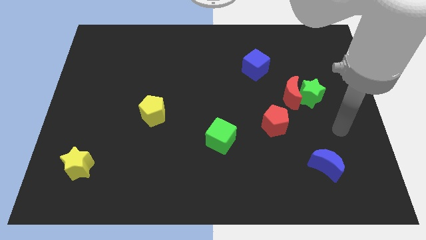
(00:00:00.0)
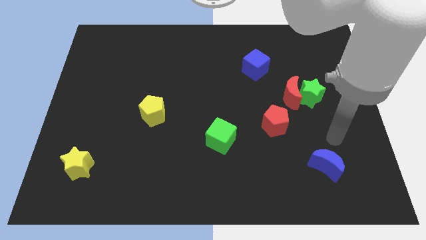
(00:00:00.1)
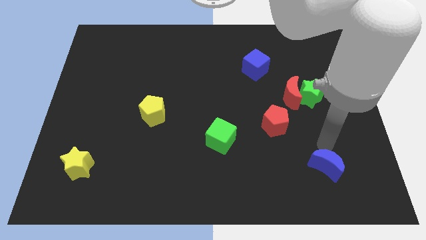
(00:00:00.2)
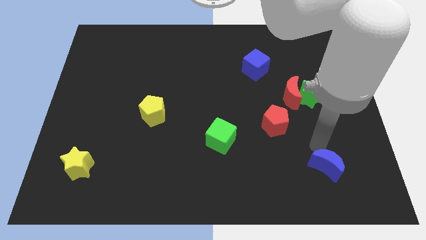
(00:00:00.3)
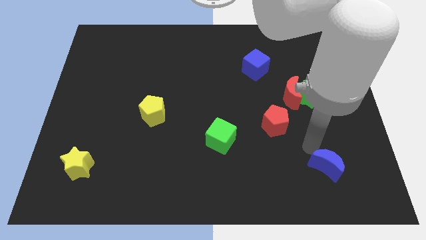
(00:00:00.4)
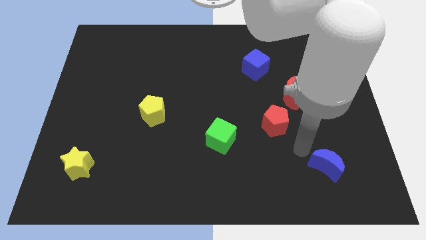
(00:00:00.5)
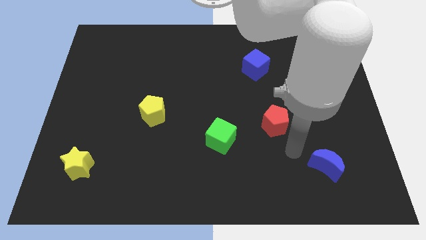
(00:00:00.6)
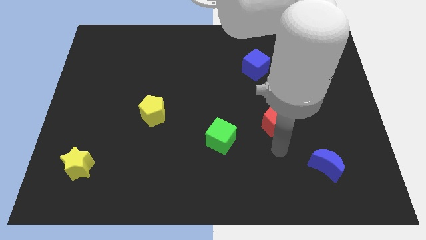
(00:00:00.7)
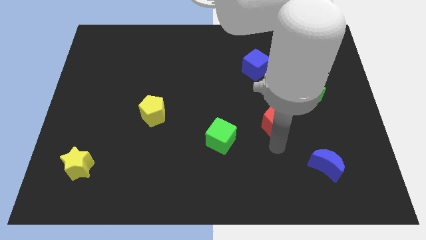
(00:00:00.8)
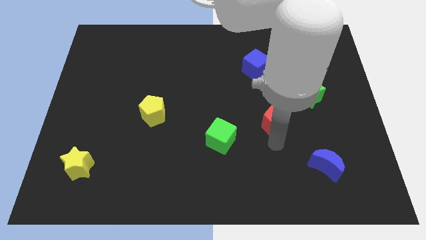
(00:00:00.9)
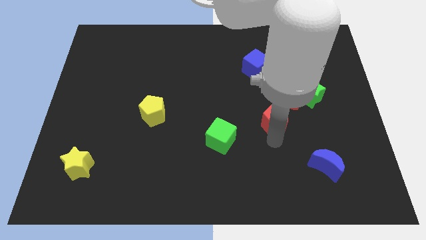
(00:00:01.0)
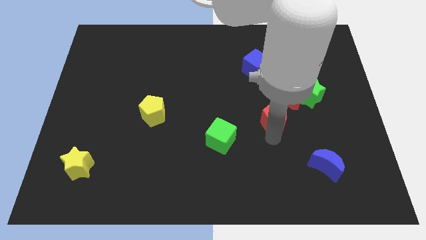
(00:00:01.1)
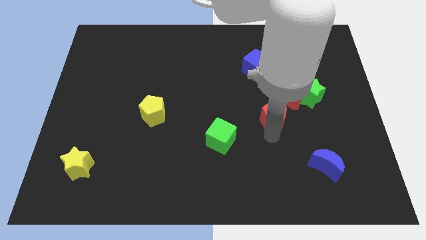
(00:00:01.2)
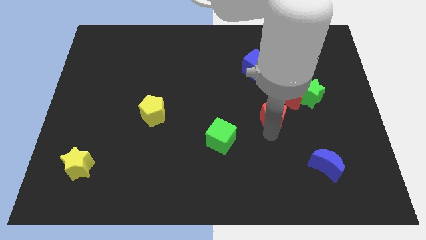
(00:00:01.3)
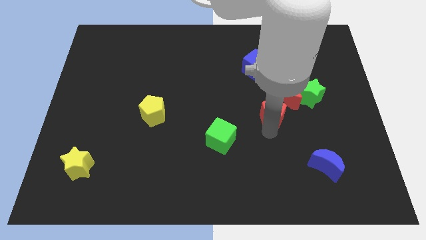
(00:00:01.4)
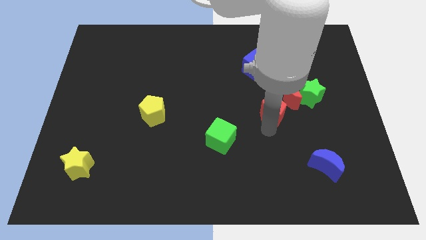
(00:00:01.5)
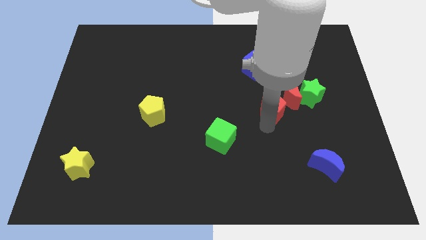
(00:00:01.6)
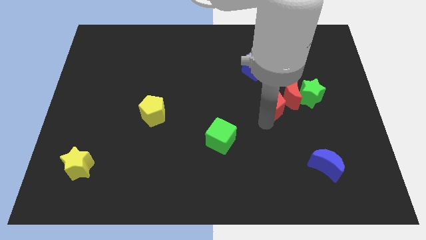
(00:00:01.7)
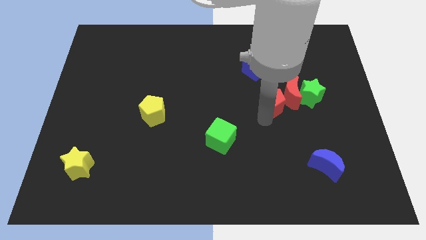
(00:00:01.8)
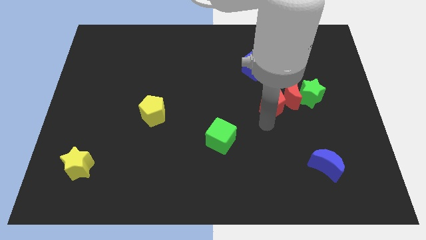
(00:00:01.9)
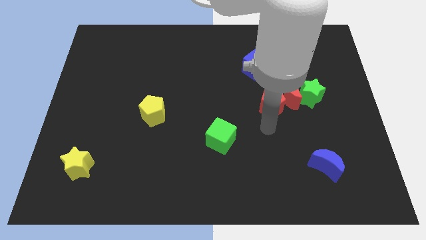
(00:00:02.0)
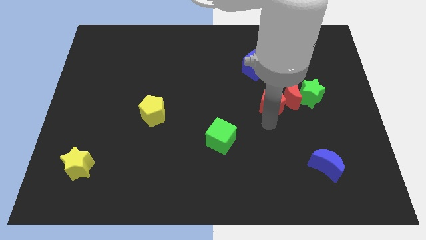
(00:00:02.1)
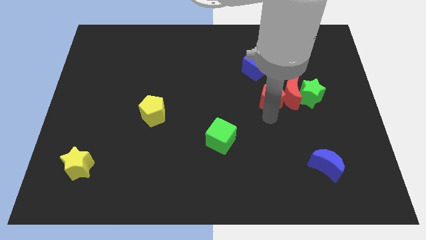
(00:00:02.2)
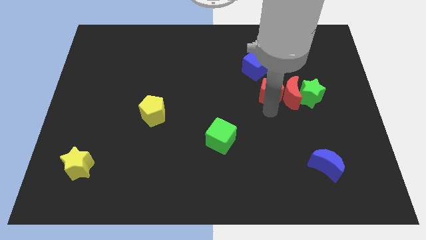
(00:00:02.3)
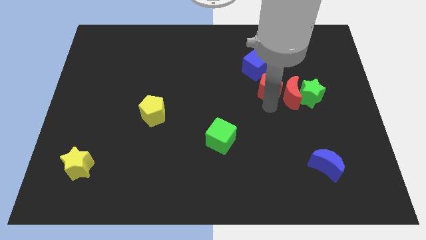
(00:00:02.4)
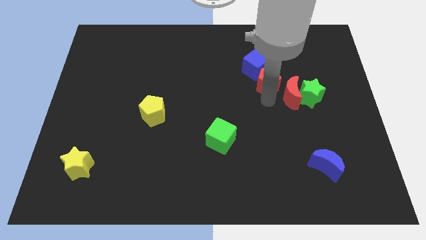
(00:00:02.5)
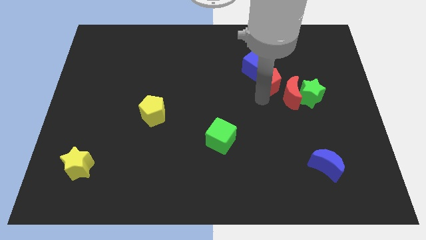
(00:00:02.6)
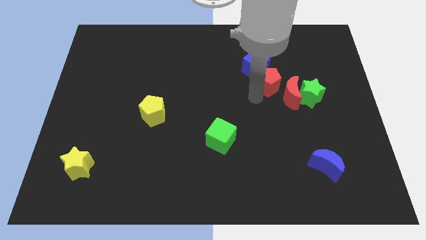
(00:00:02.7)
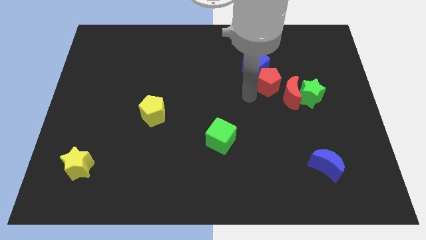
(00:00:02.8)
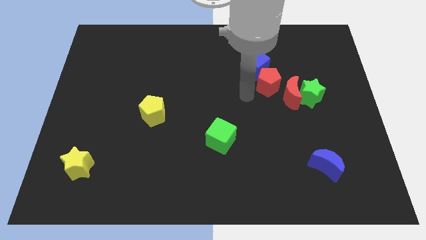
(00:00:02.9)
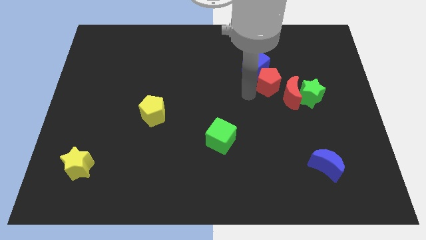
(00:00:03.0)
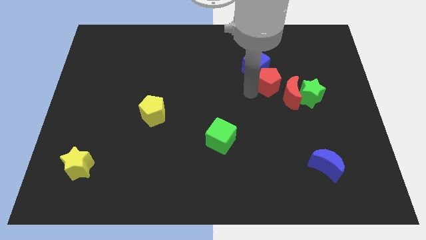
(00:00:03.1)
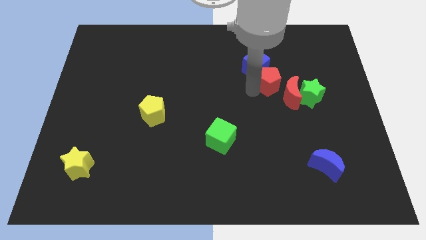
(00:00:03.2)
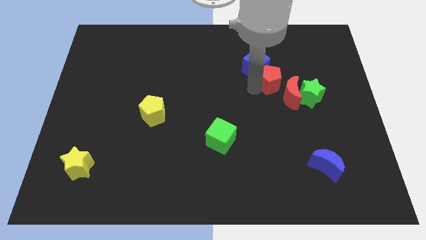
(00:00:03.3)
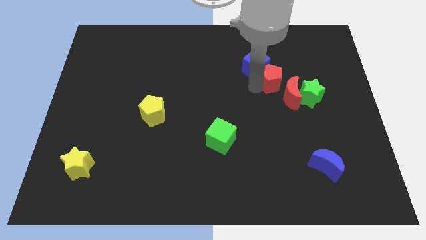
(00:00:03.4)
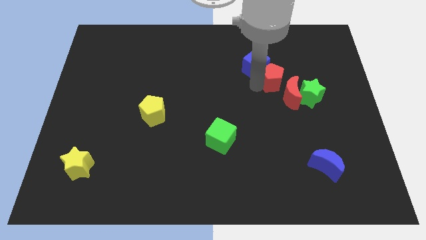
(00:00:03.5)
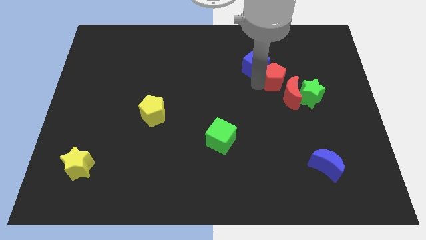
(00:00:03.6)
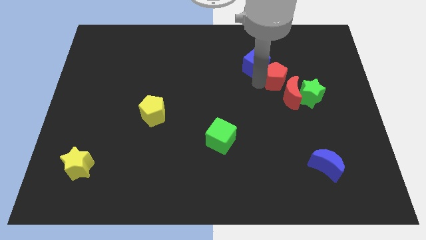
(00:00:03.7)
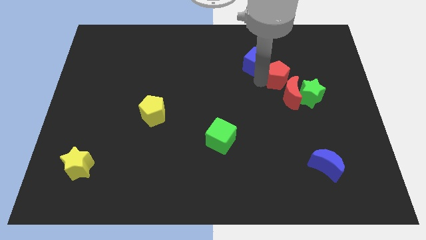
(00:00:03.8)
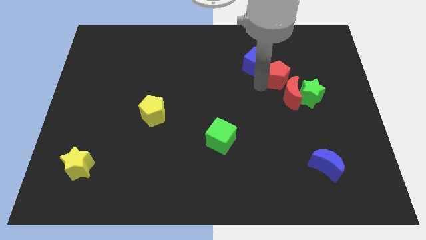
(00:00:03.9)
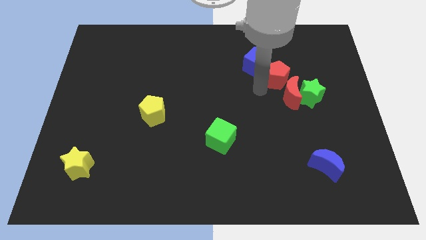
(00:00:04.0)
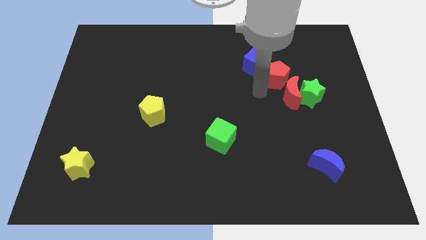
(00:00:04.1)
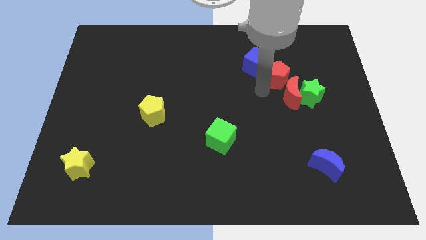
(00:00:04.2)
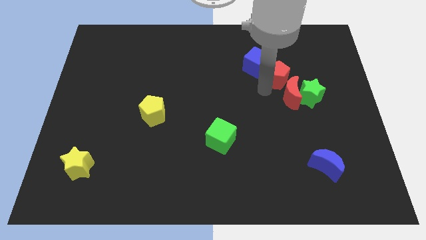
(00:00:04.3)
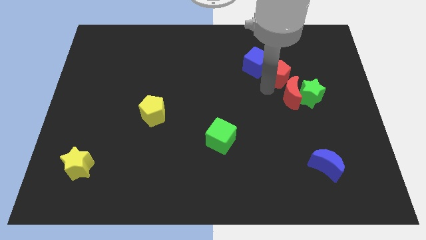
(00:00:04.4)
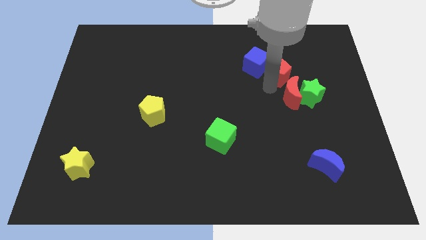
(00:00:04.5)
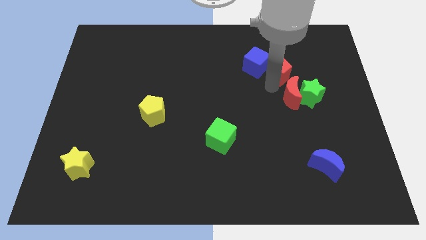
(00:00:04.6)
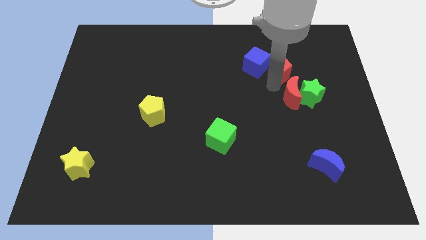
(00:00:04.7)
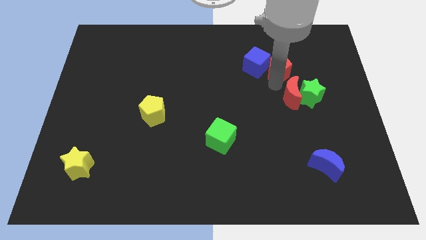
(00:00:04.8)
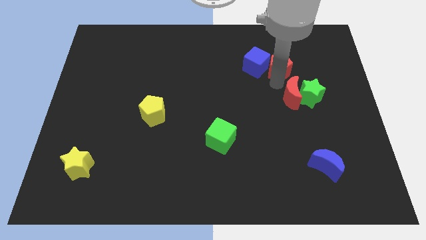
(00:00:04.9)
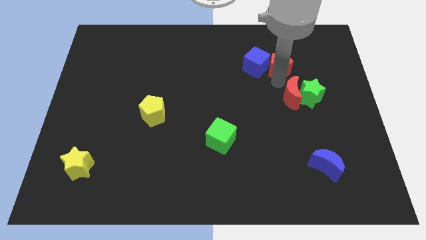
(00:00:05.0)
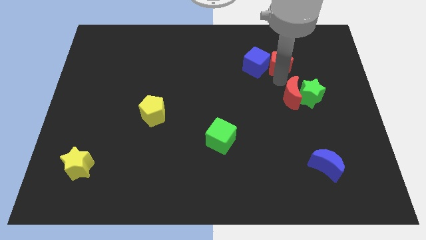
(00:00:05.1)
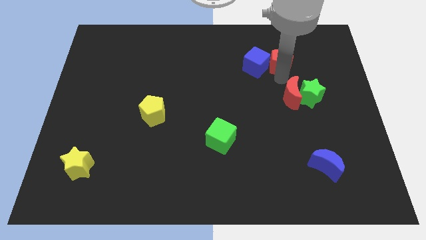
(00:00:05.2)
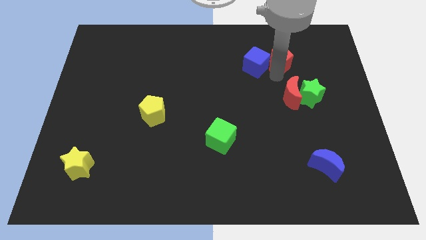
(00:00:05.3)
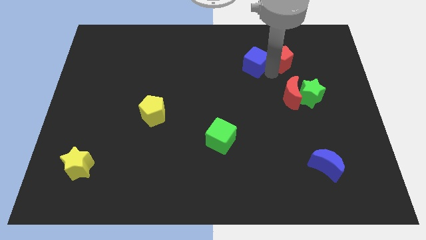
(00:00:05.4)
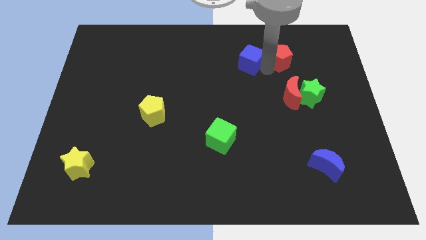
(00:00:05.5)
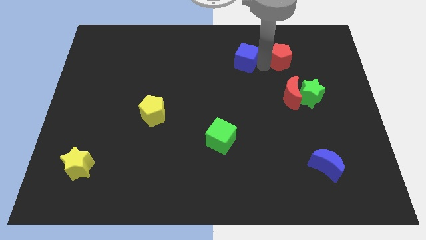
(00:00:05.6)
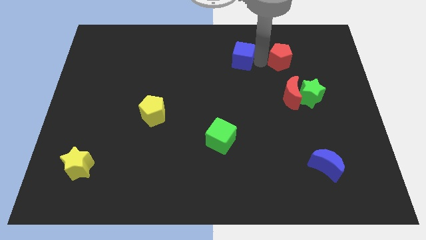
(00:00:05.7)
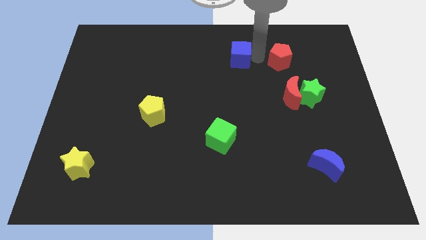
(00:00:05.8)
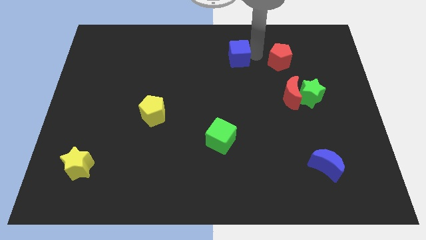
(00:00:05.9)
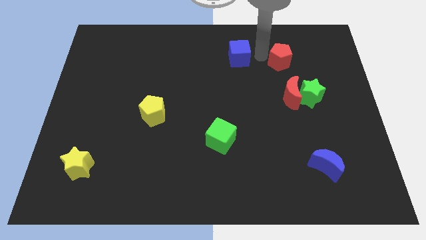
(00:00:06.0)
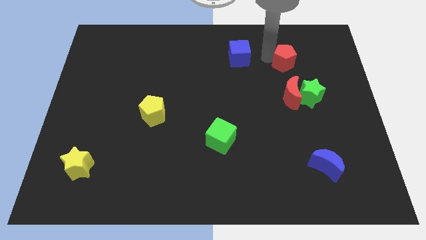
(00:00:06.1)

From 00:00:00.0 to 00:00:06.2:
move the red pentagon above the green star

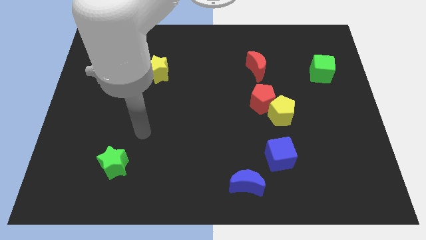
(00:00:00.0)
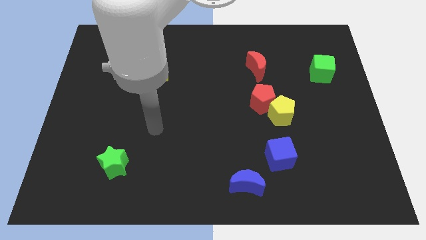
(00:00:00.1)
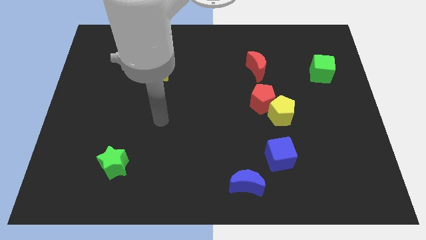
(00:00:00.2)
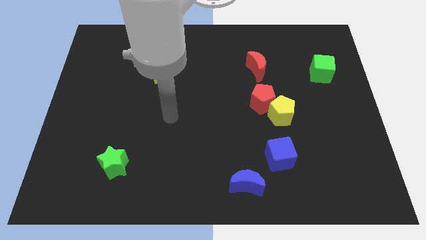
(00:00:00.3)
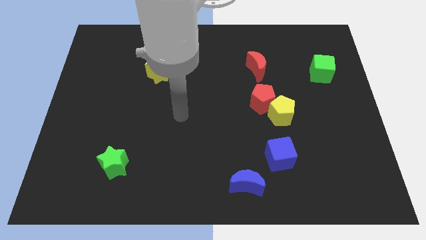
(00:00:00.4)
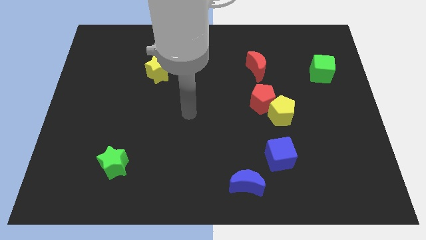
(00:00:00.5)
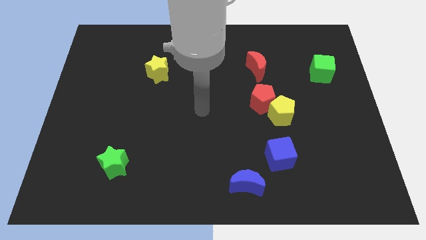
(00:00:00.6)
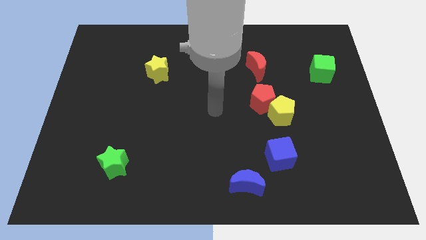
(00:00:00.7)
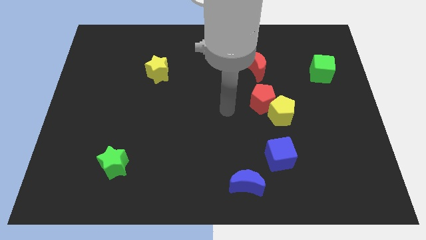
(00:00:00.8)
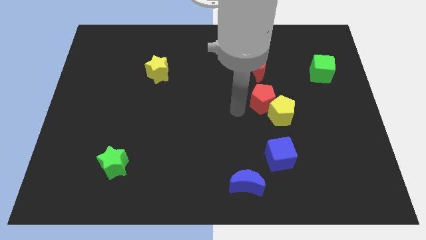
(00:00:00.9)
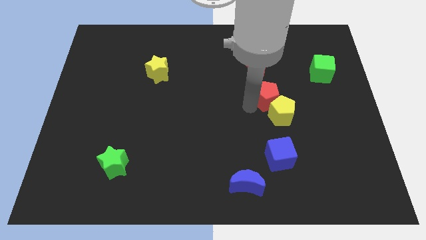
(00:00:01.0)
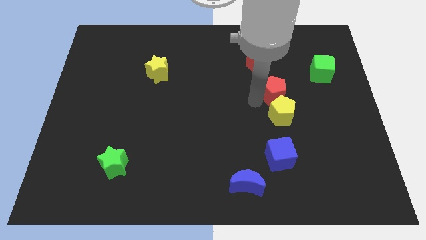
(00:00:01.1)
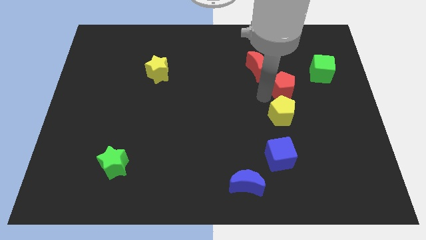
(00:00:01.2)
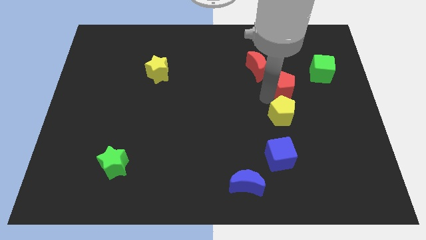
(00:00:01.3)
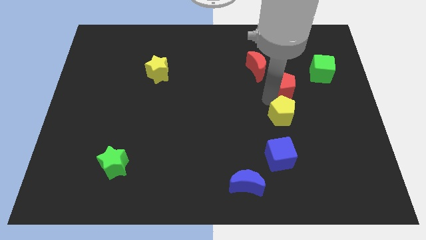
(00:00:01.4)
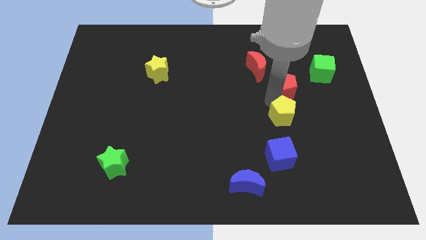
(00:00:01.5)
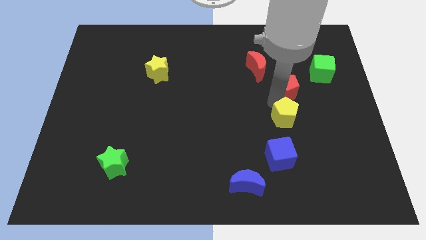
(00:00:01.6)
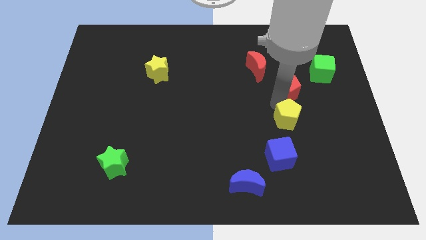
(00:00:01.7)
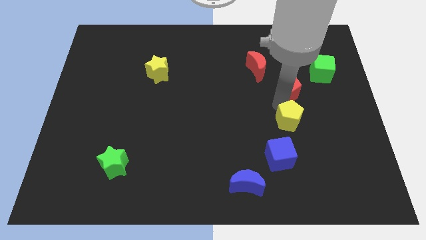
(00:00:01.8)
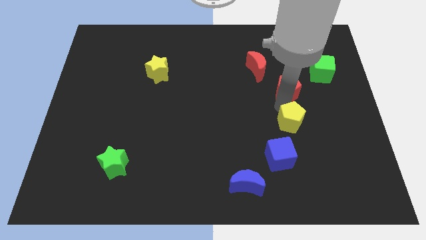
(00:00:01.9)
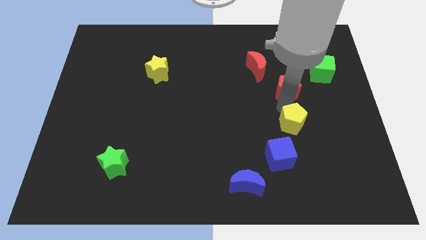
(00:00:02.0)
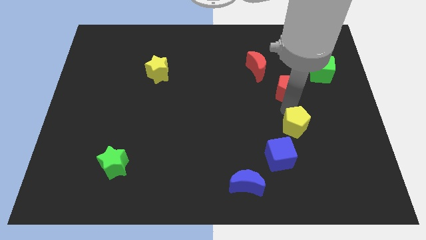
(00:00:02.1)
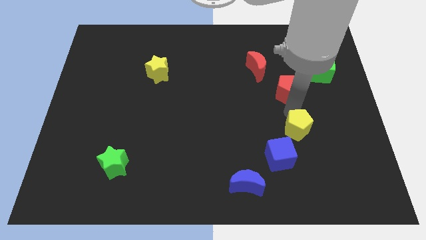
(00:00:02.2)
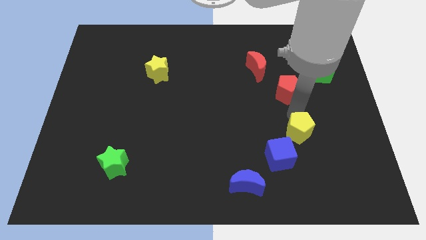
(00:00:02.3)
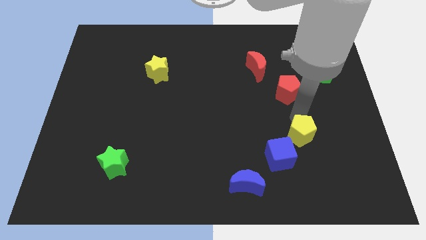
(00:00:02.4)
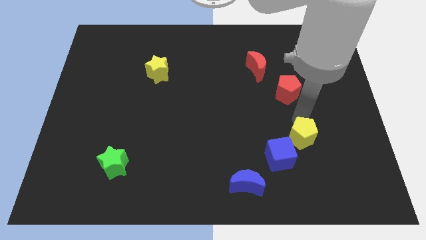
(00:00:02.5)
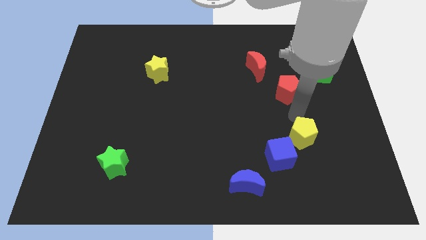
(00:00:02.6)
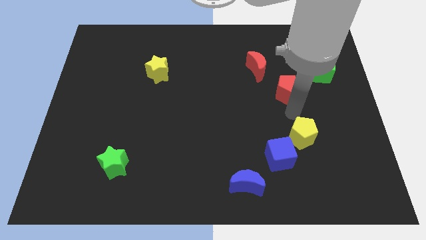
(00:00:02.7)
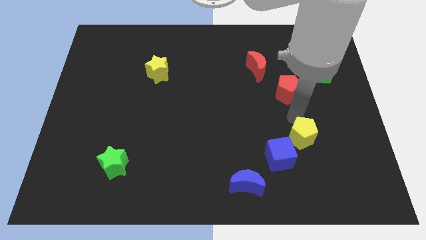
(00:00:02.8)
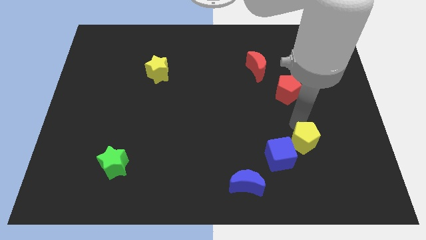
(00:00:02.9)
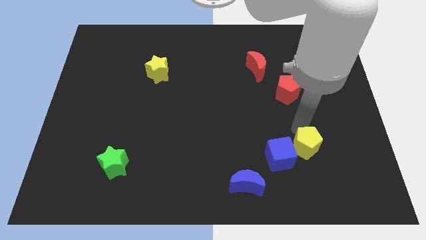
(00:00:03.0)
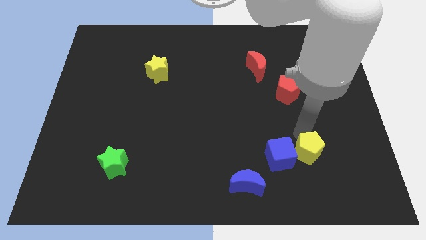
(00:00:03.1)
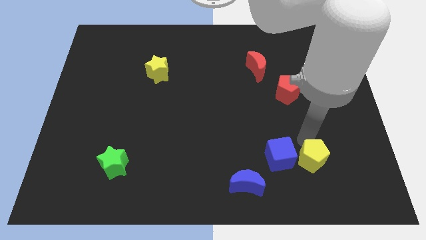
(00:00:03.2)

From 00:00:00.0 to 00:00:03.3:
slide the yellow pentagon diagonally down and to the right of the blue cube
